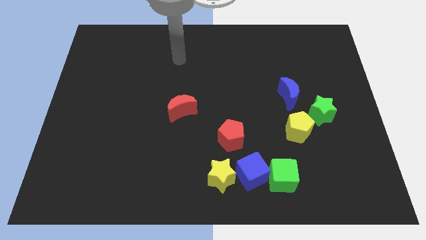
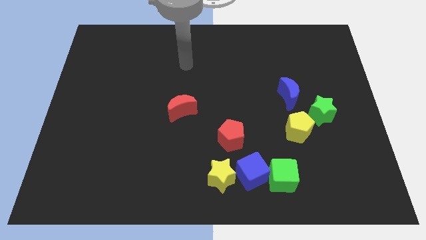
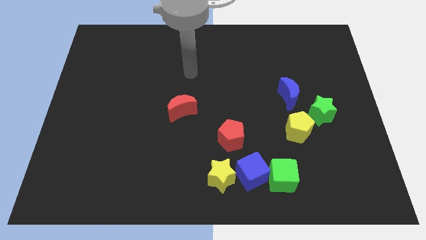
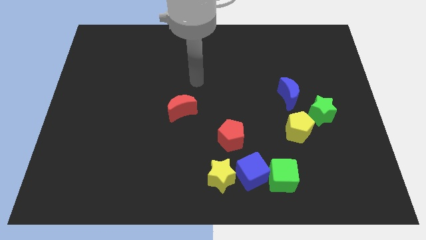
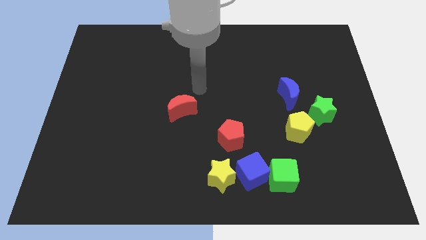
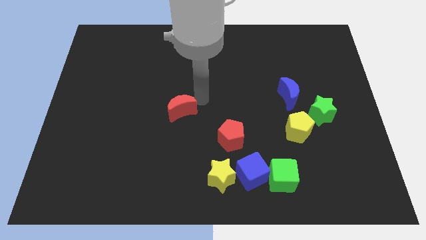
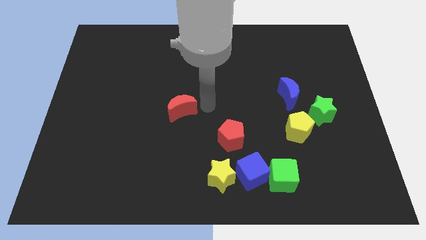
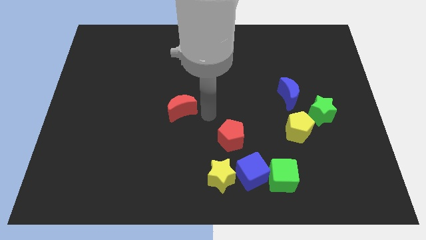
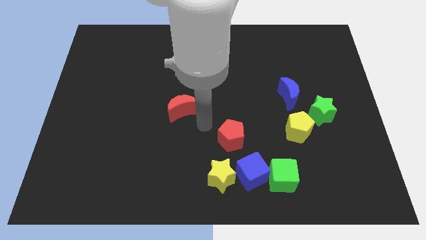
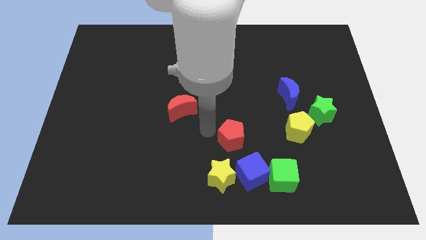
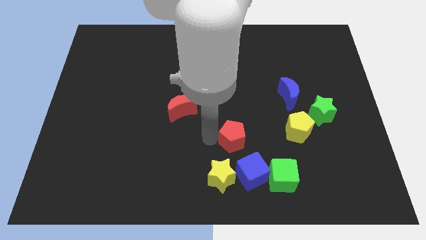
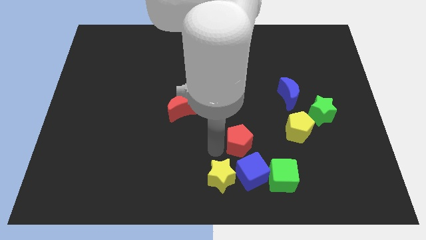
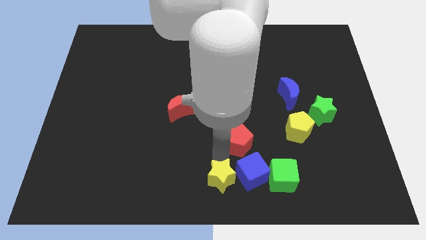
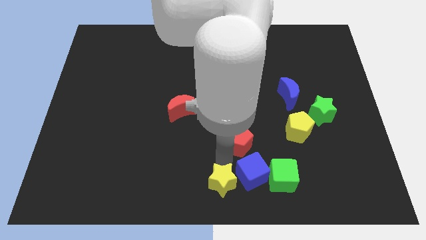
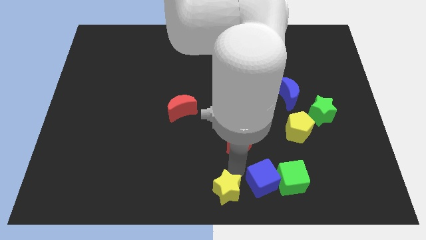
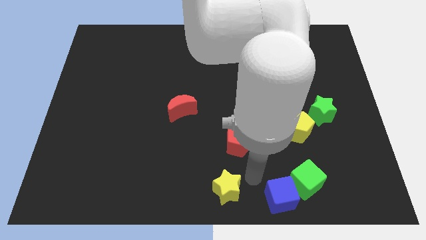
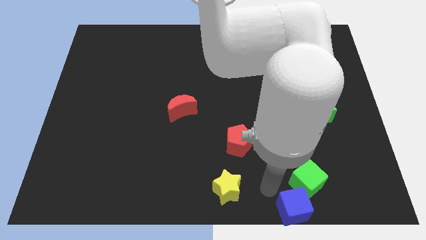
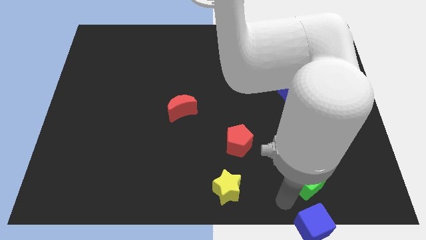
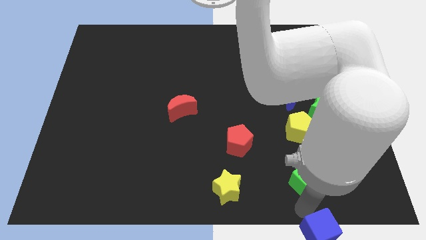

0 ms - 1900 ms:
separate the green cube from the blue cube

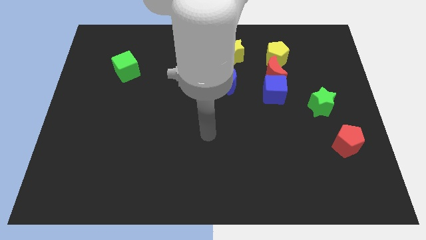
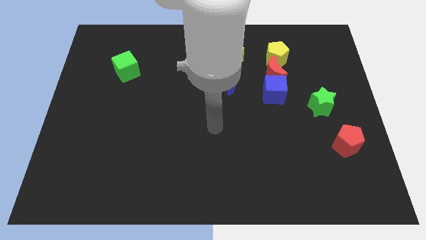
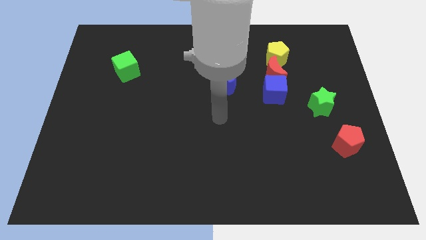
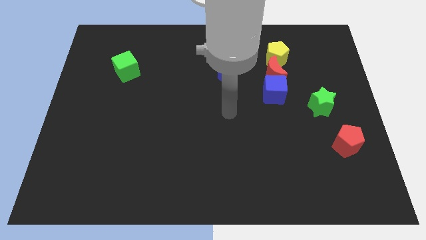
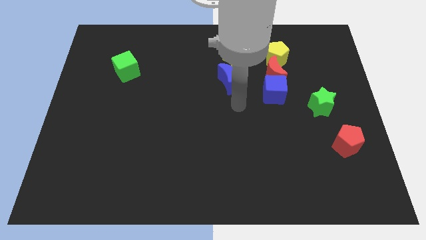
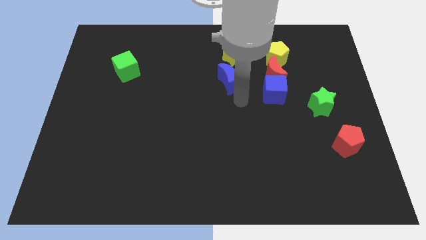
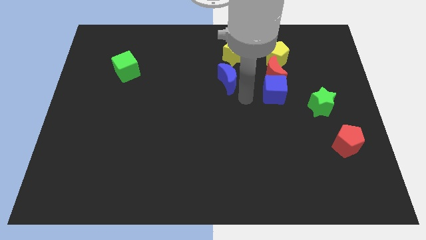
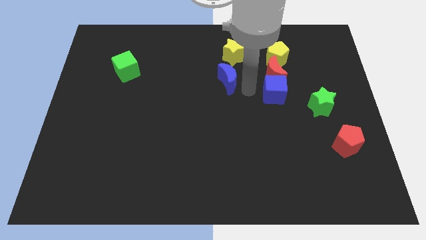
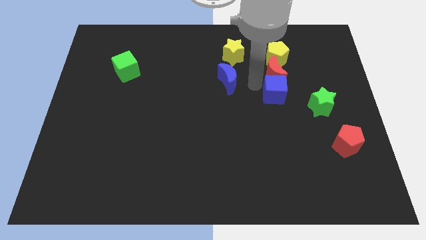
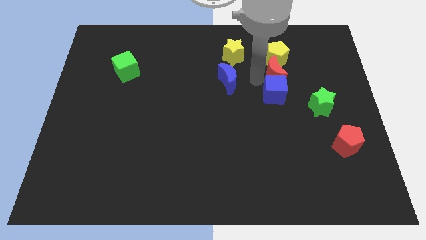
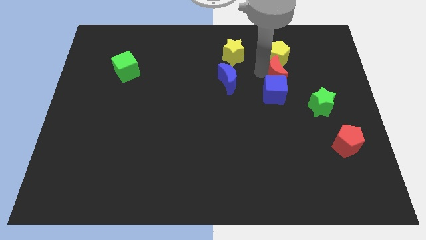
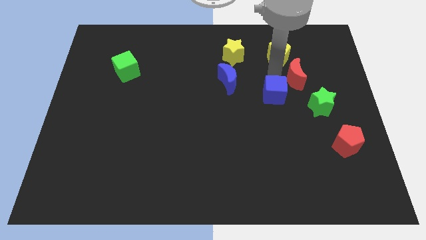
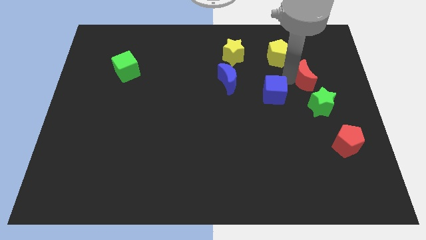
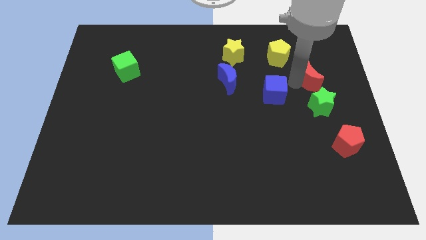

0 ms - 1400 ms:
separate the blue cube from the red moon

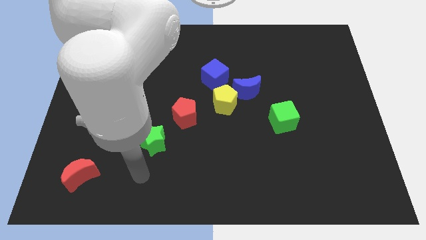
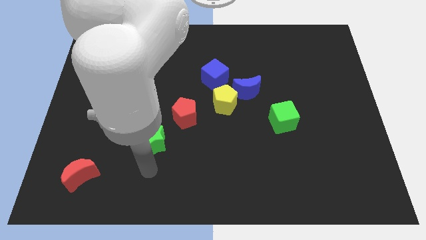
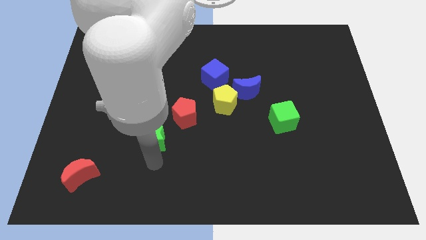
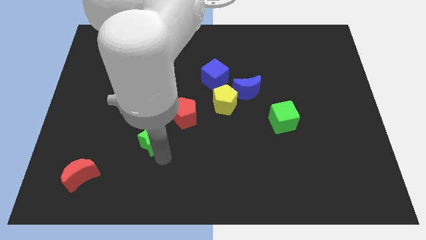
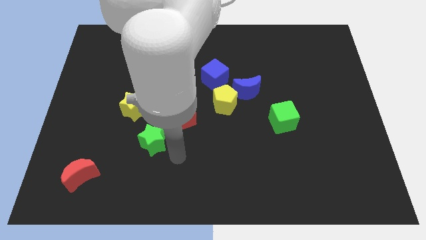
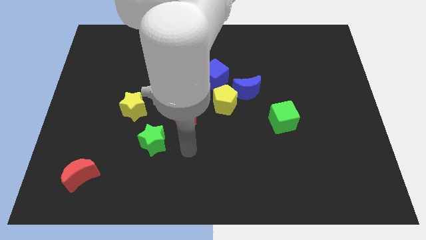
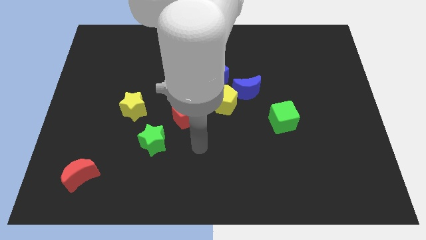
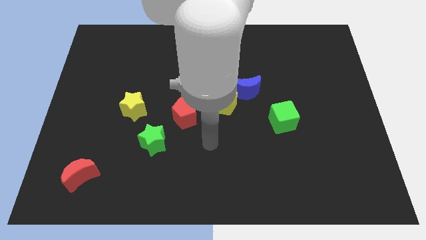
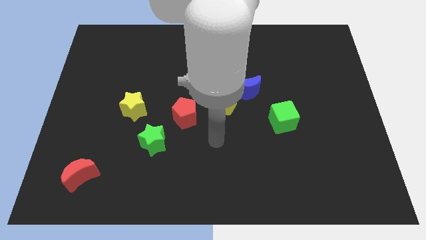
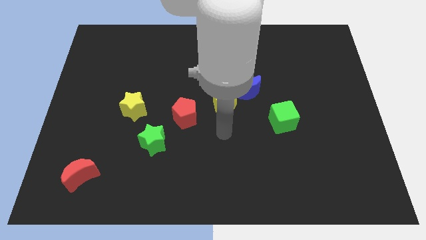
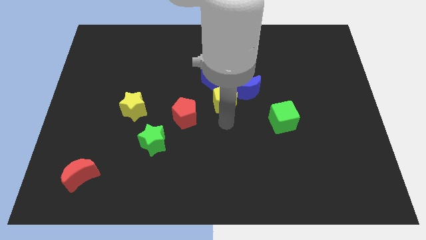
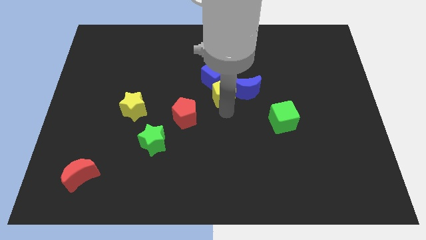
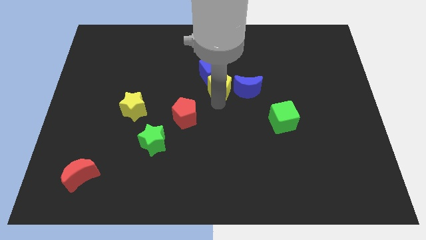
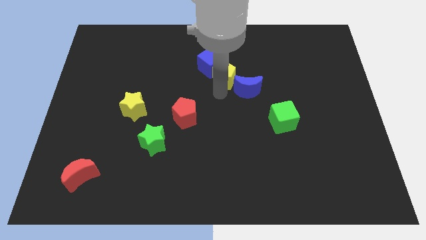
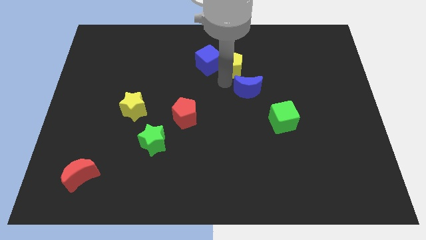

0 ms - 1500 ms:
separate the blue moon from the yellow pentagon and blue cube

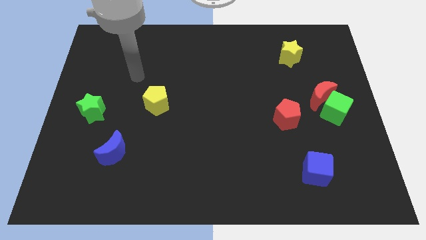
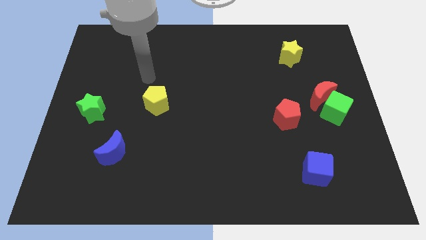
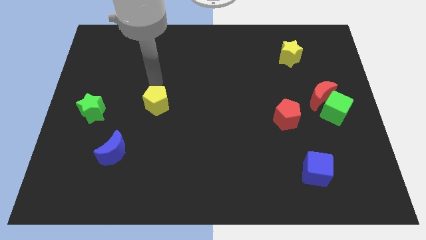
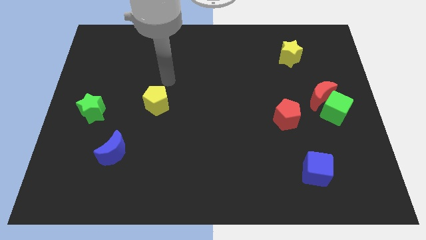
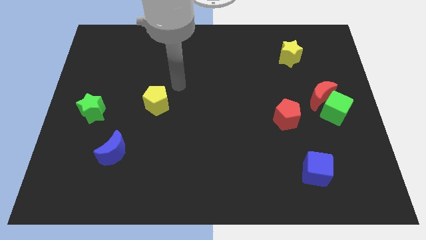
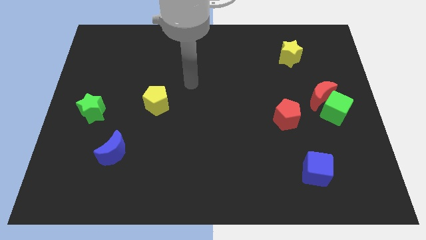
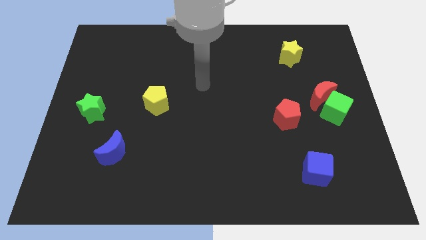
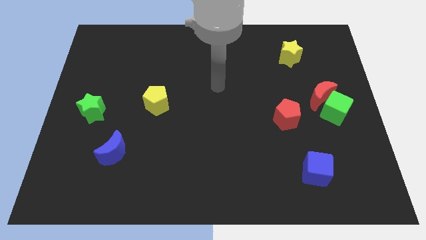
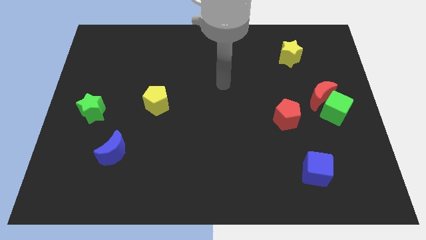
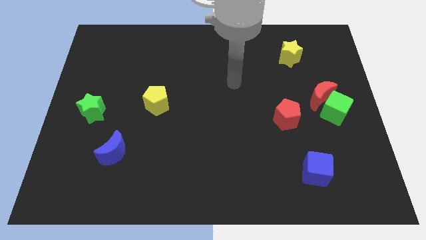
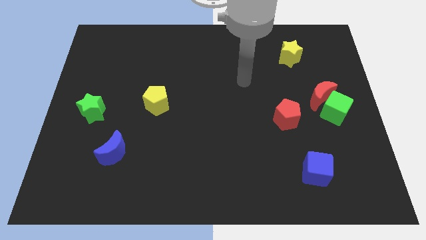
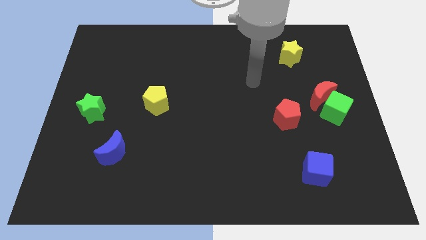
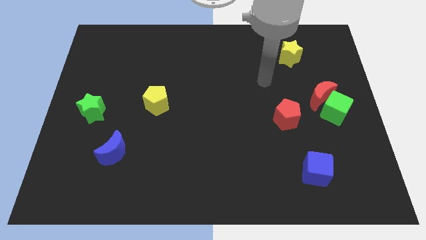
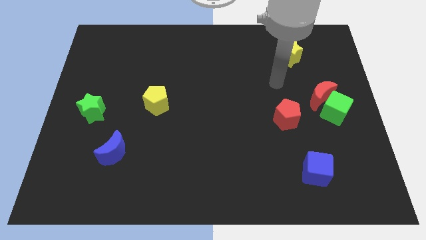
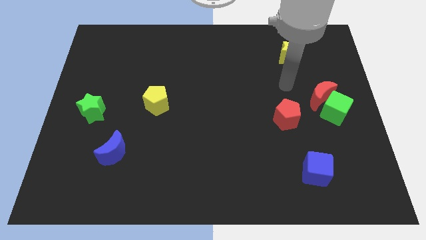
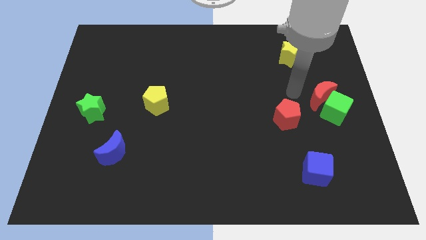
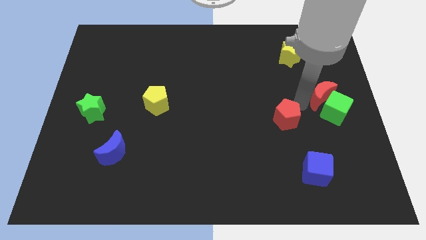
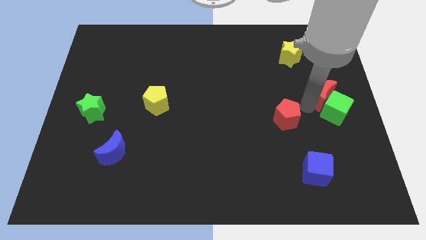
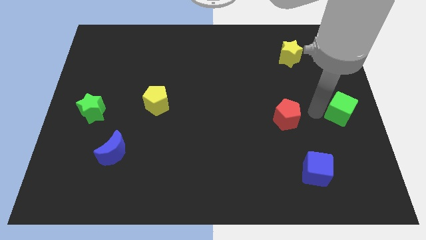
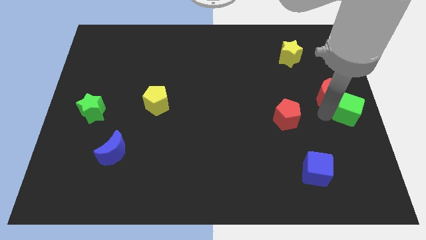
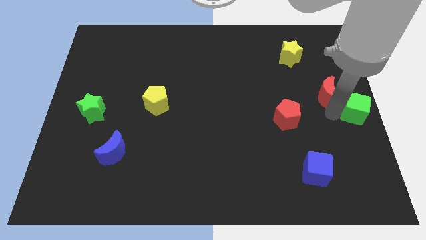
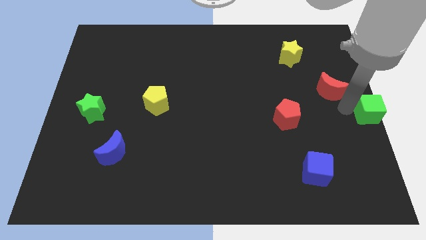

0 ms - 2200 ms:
move the red moon away from the green cube

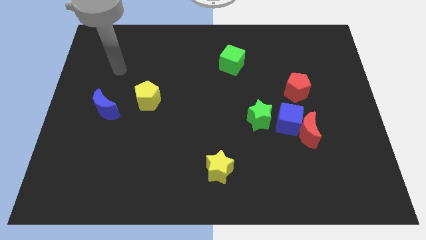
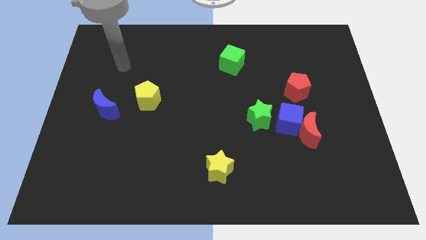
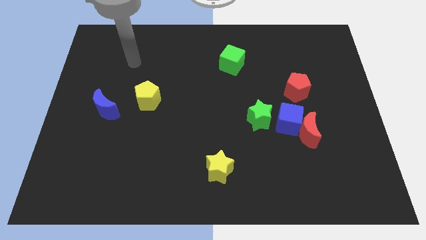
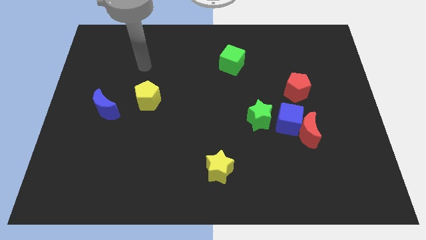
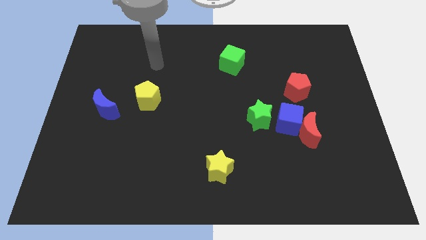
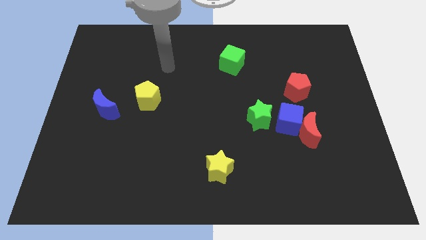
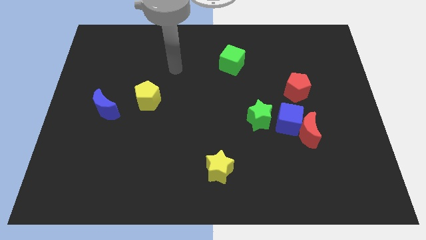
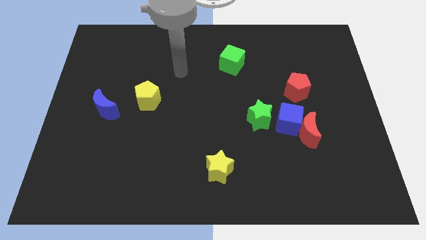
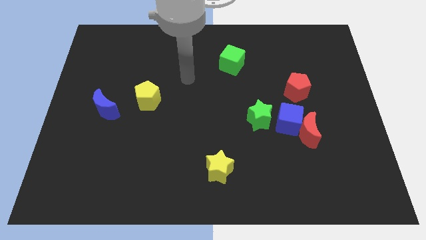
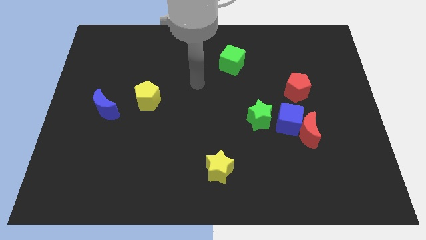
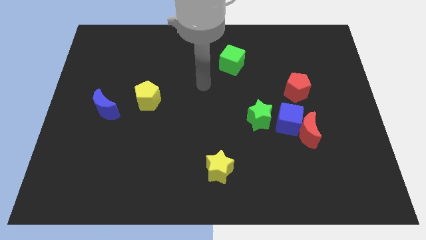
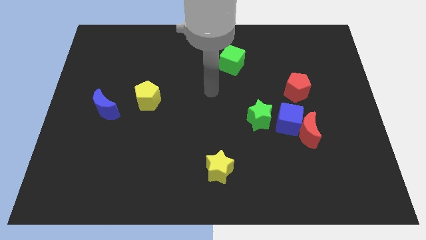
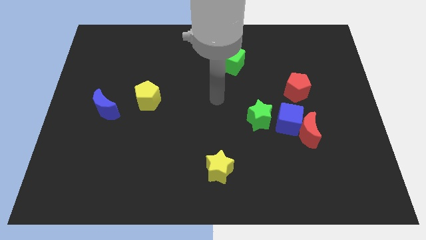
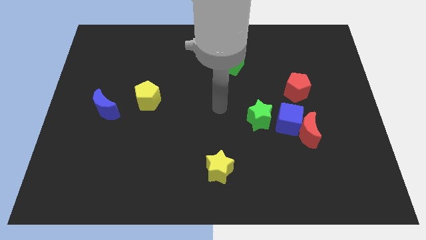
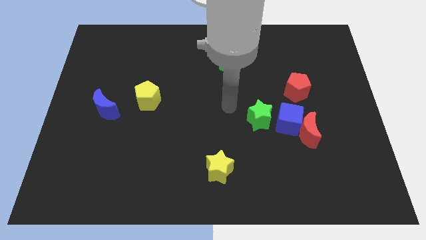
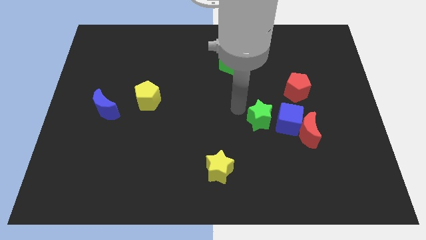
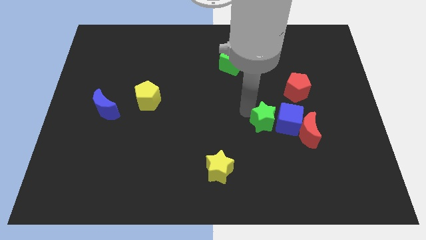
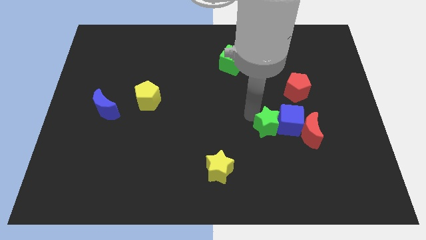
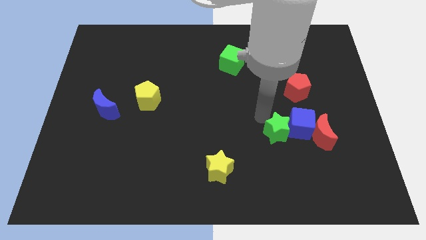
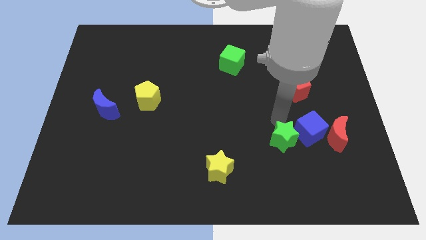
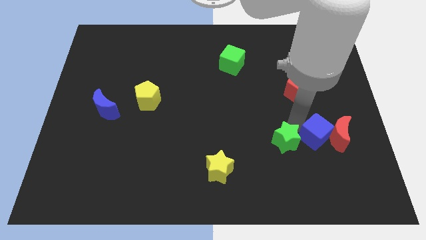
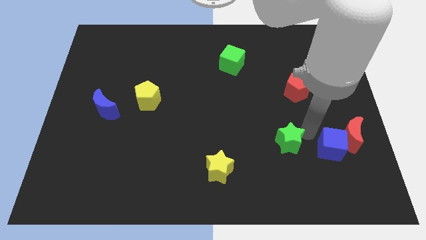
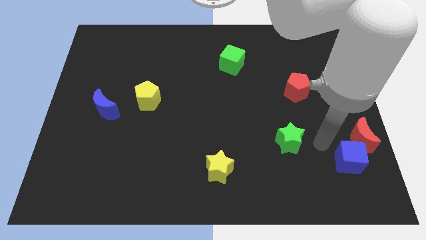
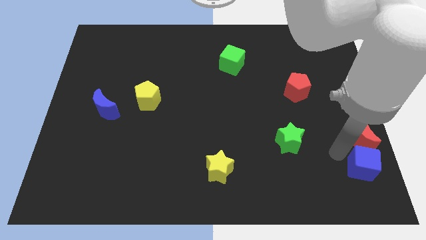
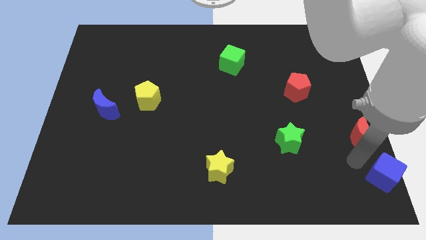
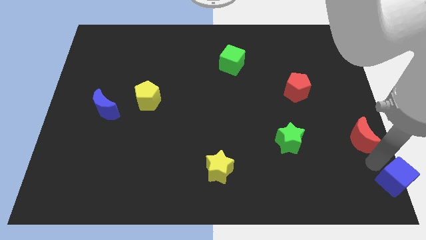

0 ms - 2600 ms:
move the red moon away from the blue cube
